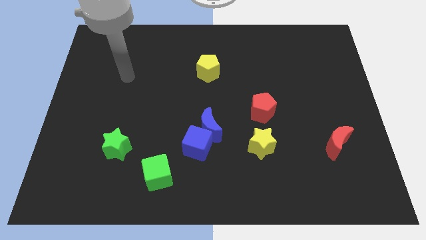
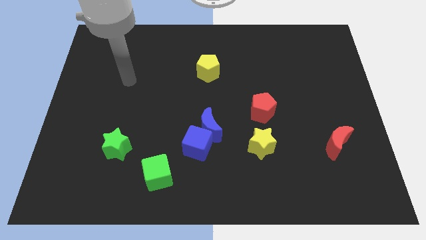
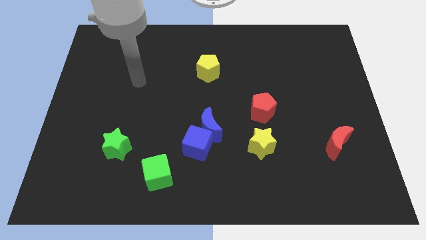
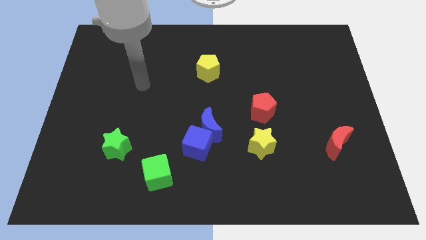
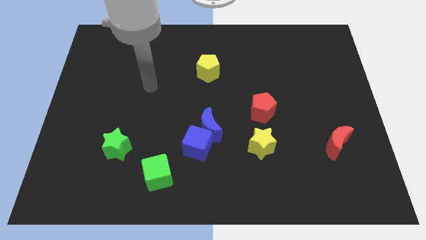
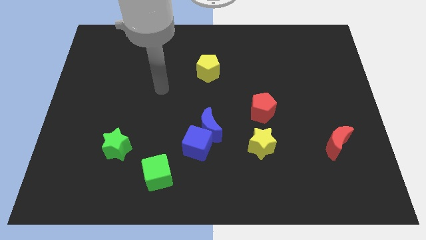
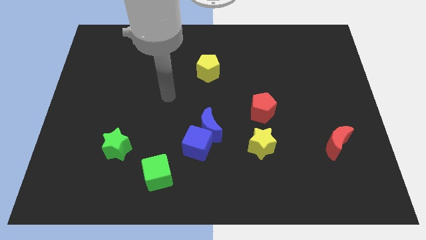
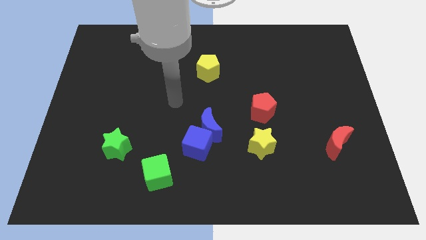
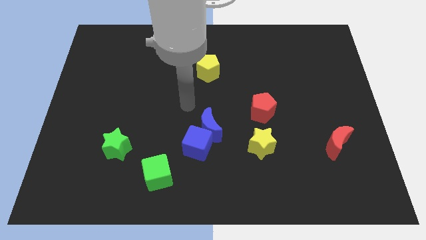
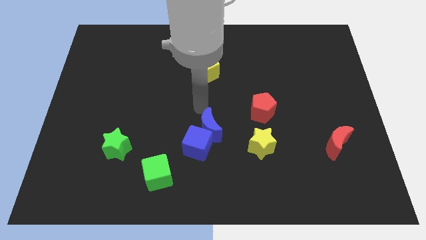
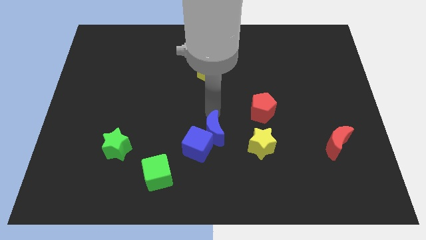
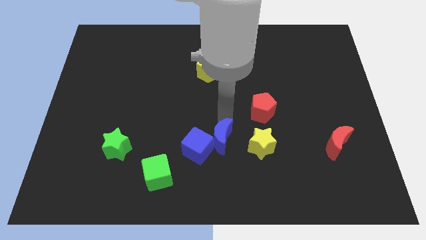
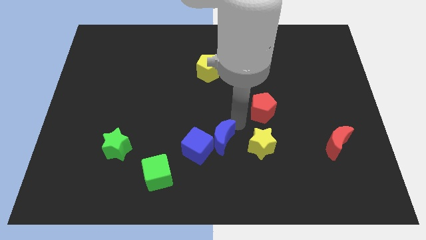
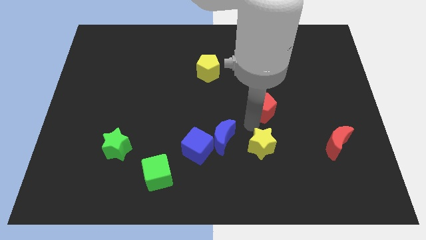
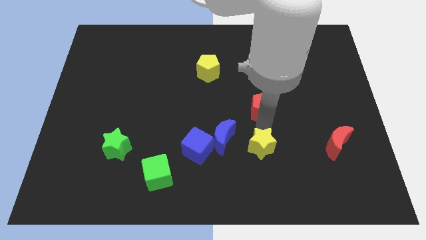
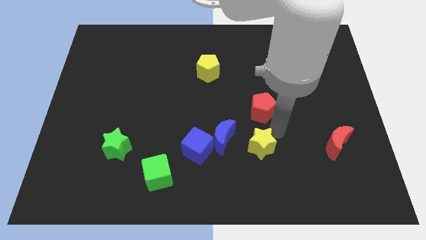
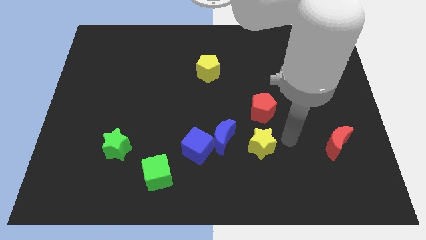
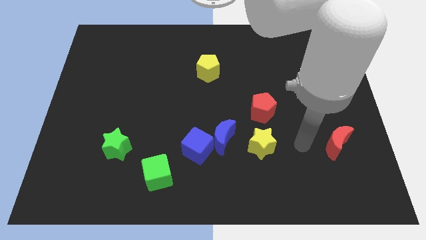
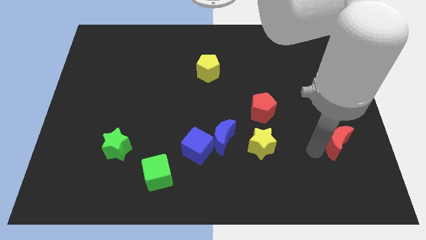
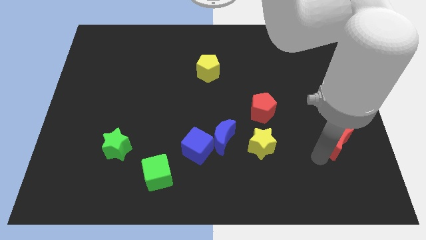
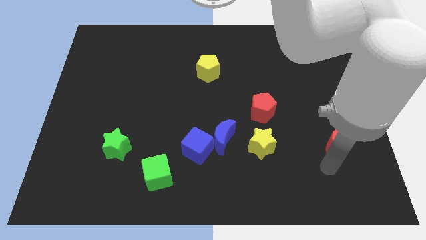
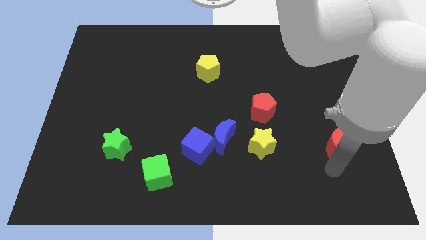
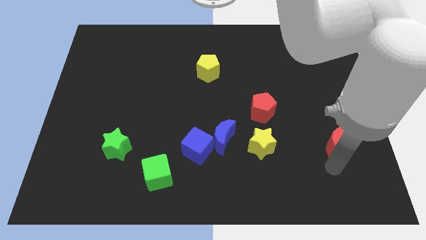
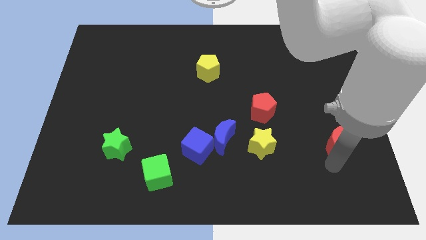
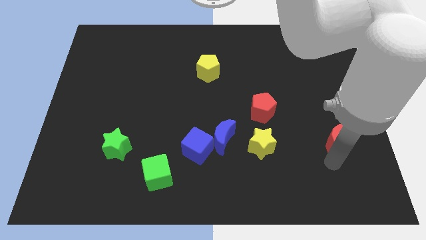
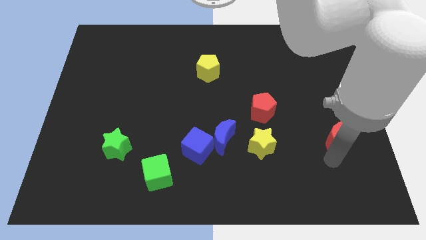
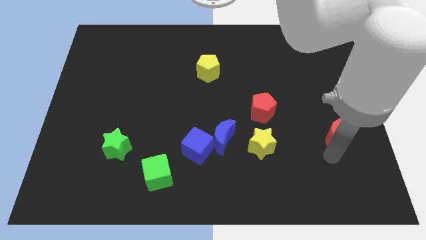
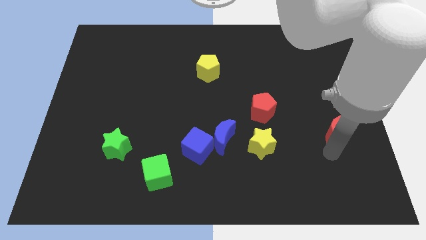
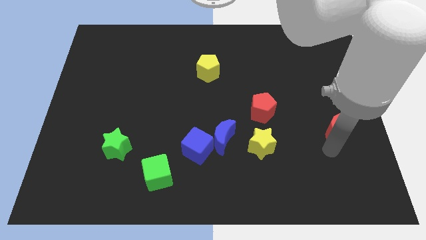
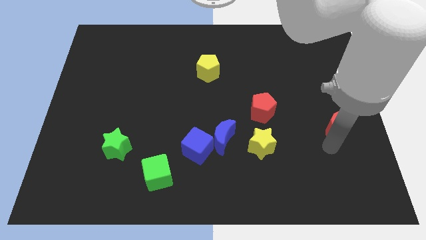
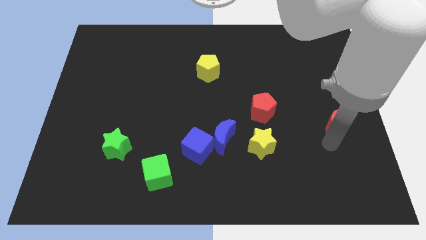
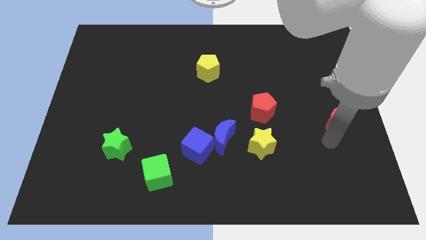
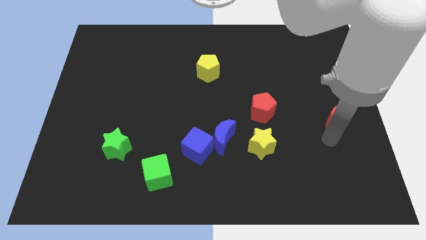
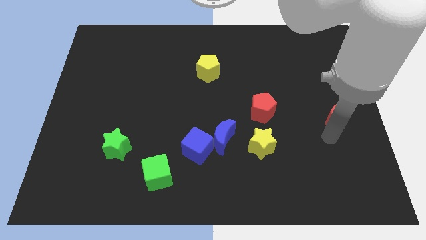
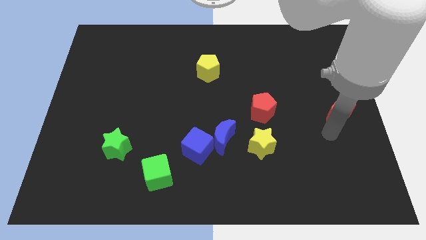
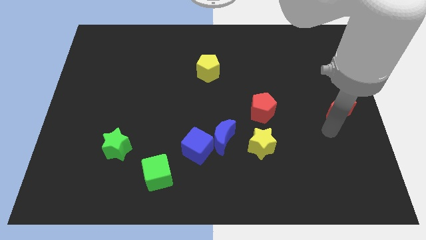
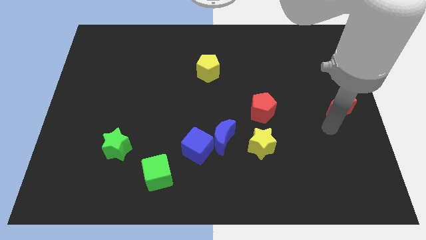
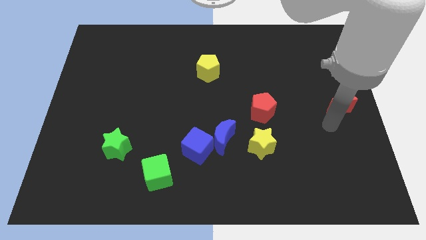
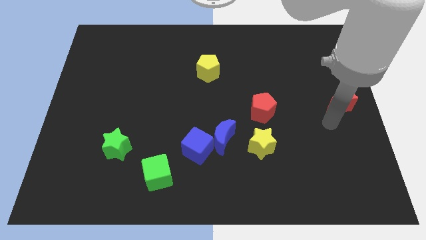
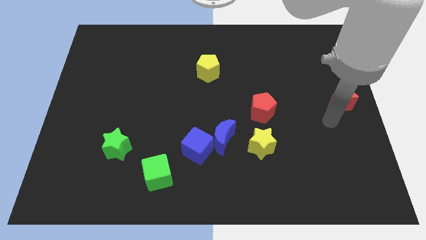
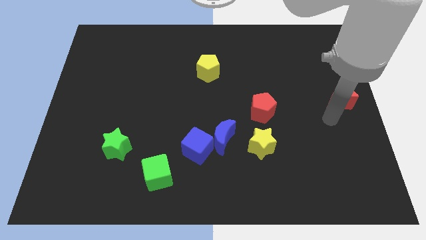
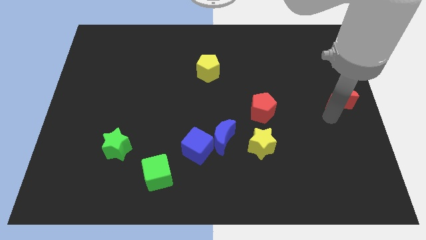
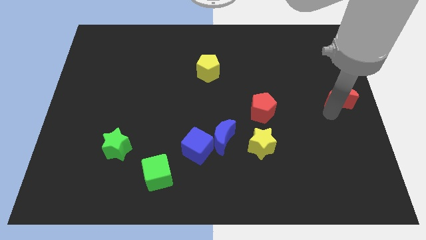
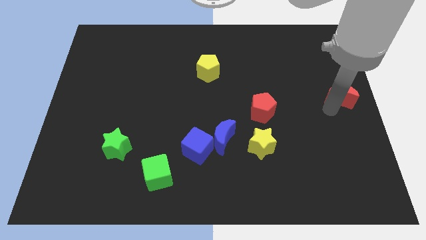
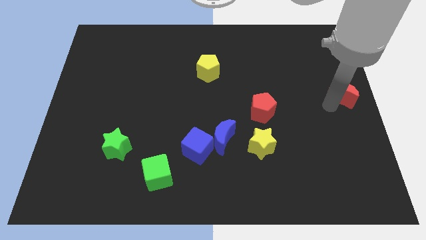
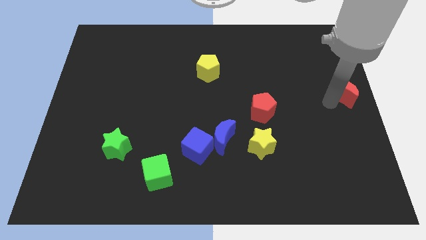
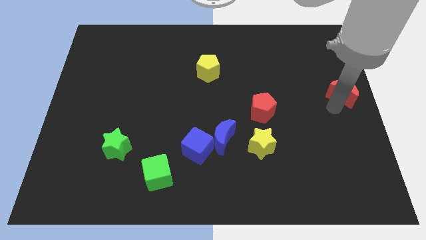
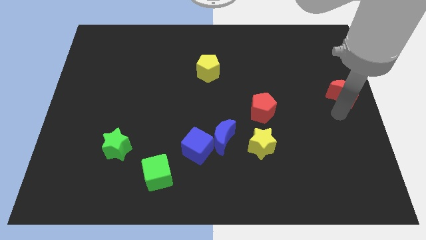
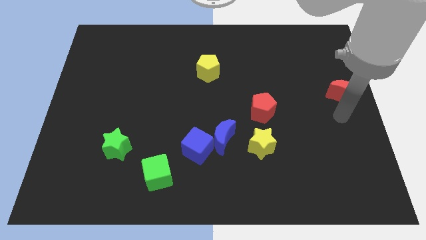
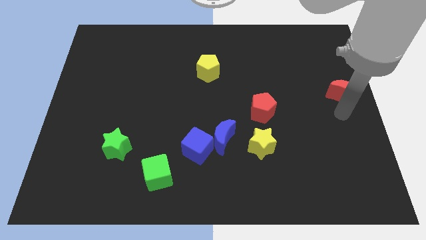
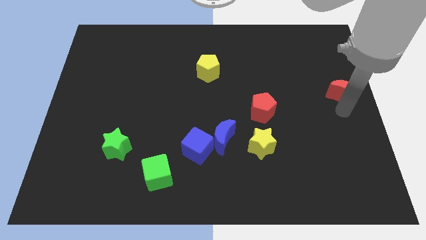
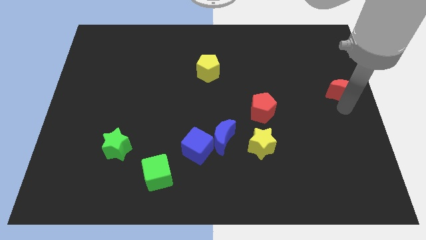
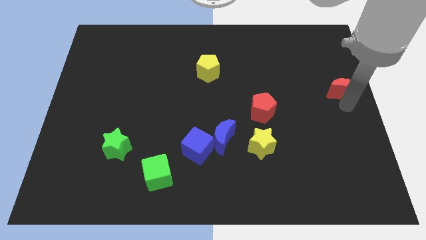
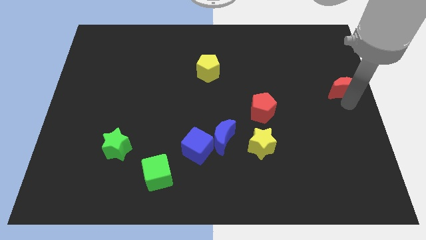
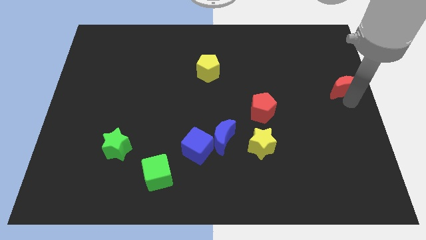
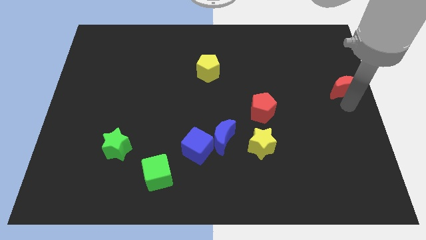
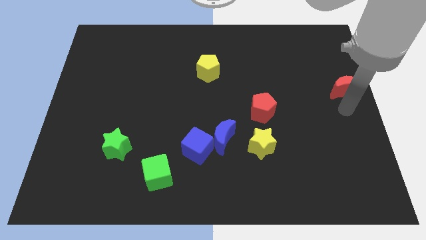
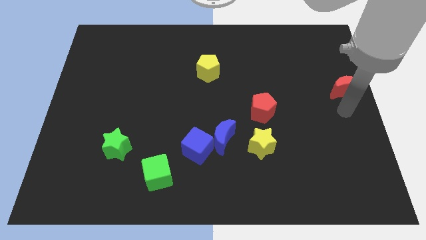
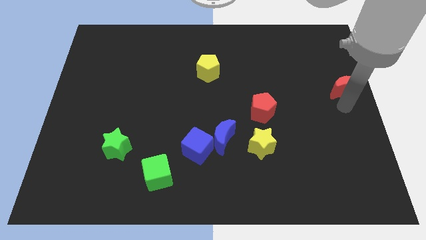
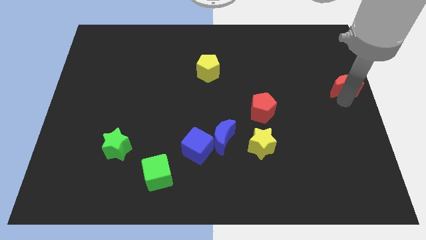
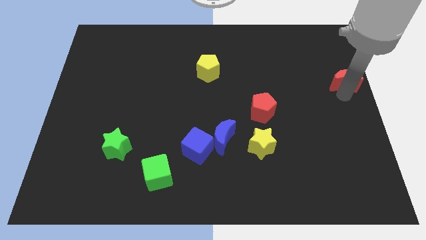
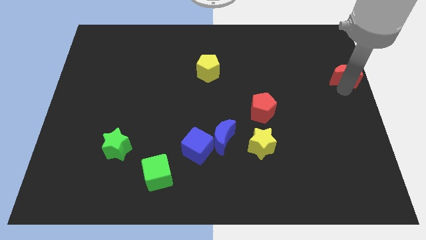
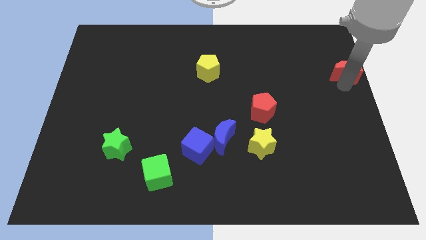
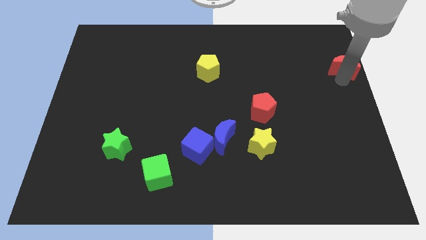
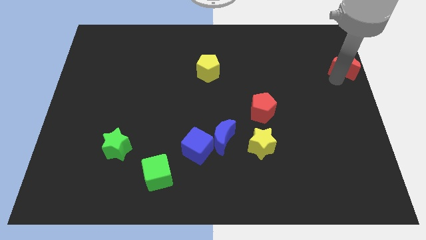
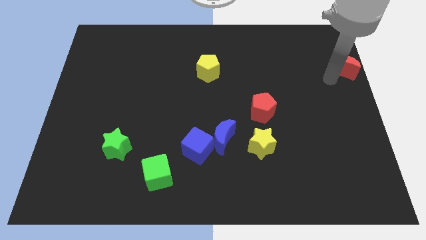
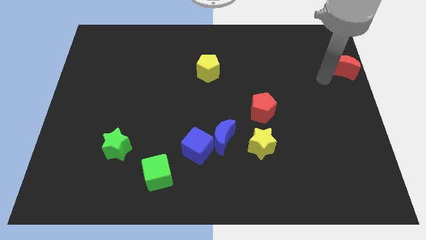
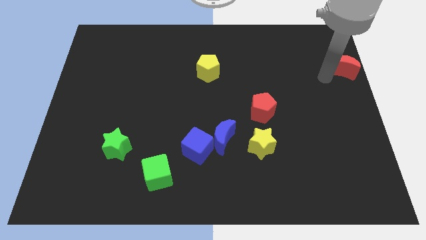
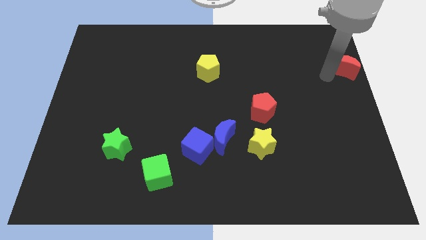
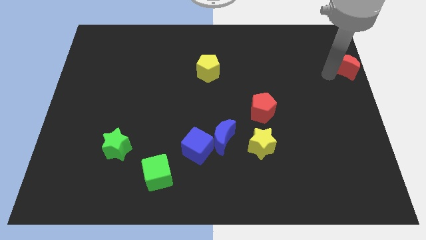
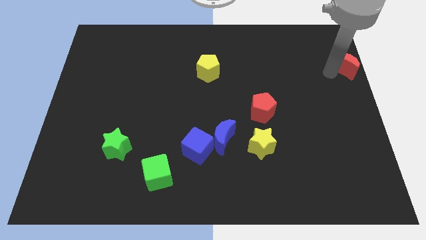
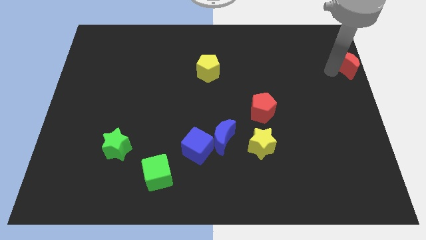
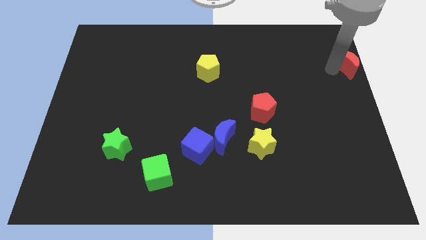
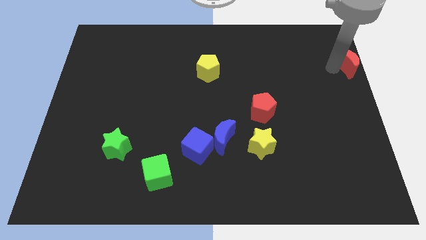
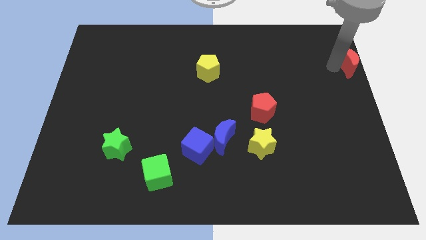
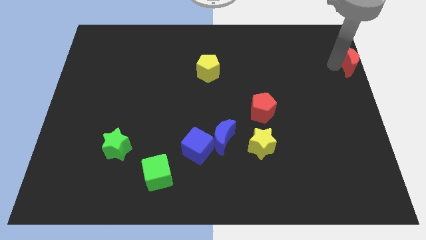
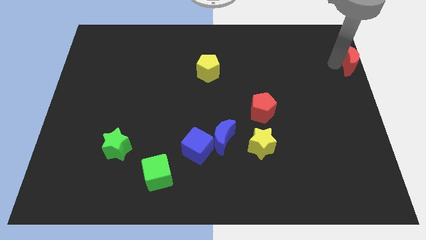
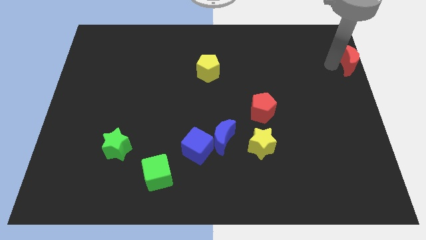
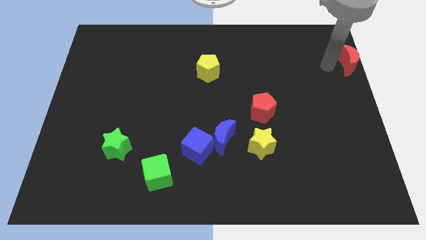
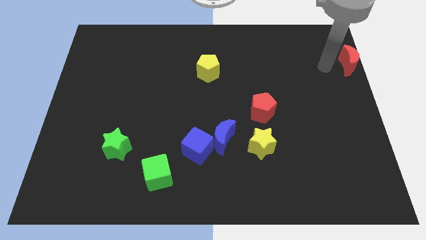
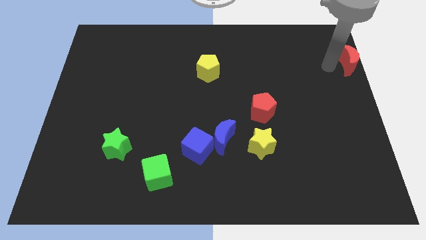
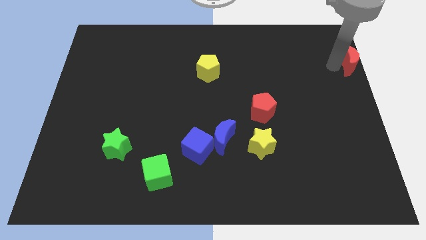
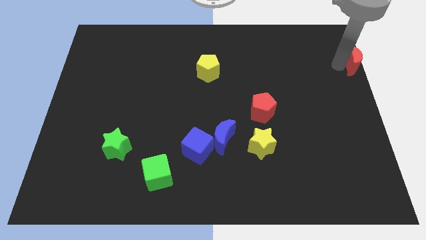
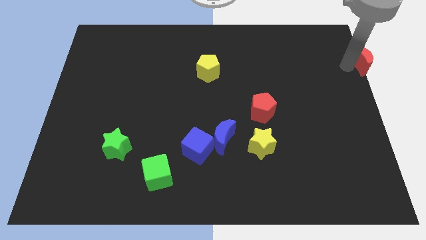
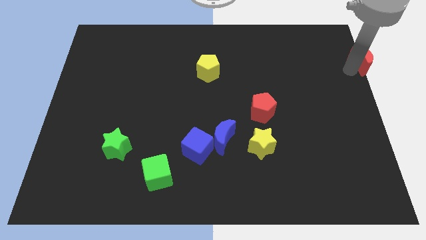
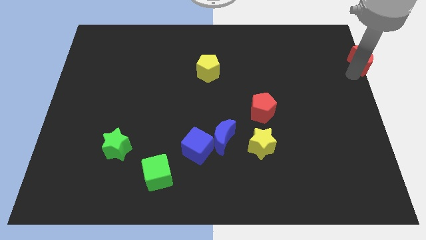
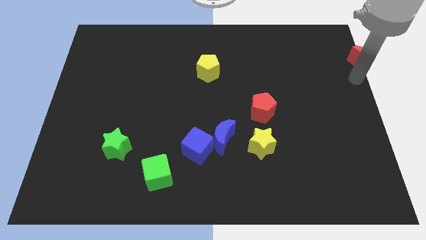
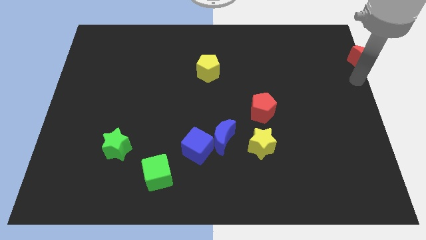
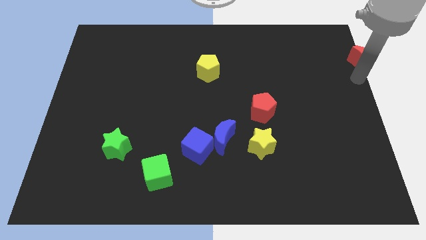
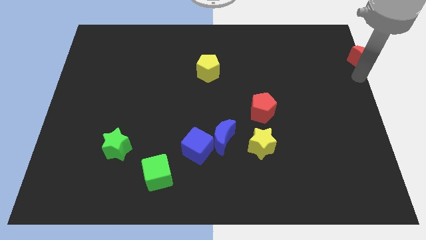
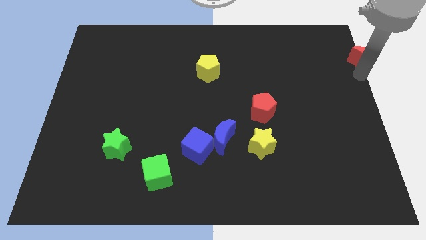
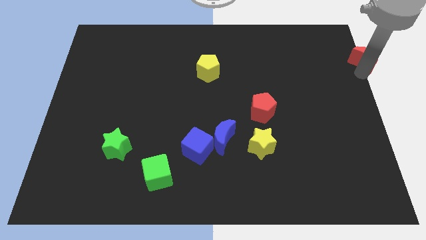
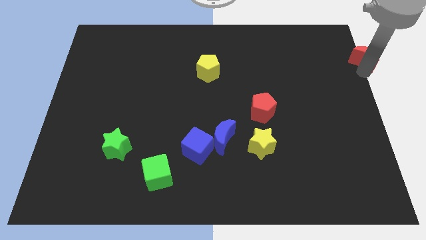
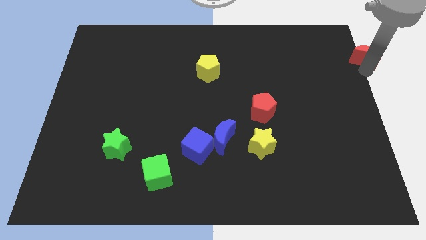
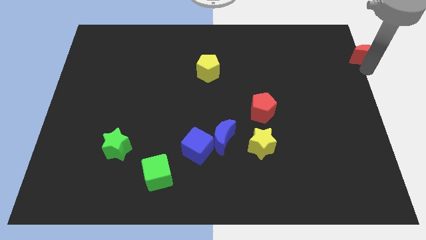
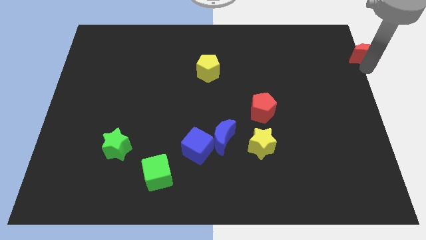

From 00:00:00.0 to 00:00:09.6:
slide the red moon to the top right corner
